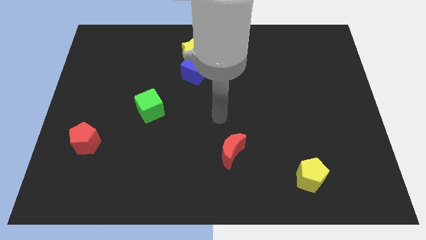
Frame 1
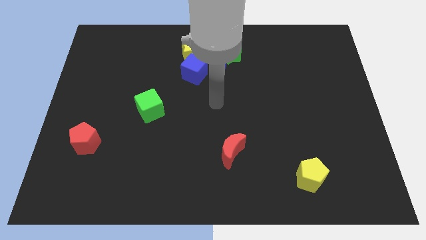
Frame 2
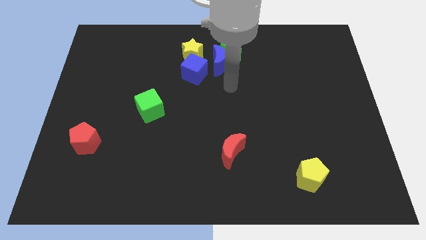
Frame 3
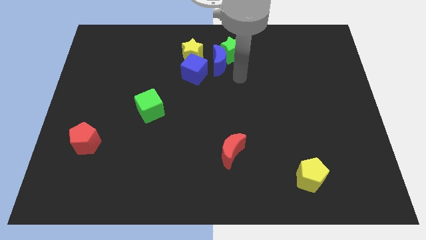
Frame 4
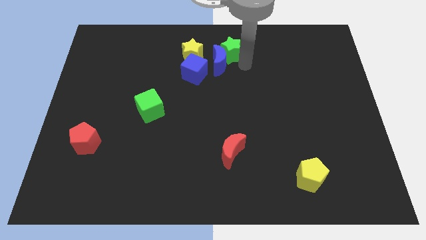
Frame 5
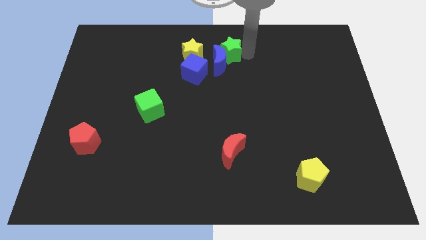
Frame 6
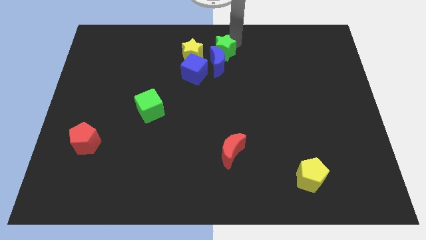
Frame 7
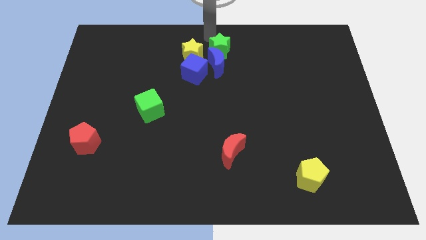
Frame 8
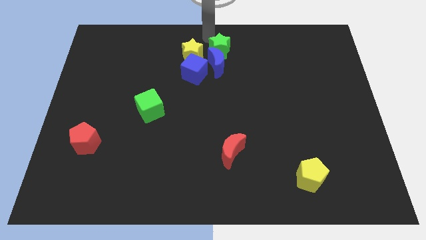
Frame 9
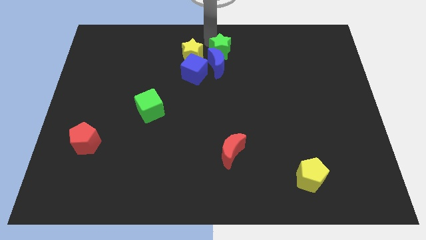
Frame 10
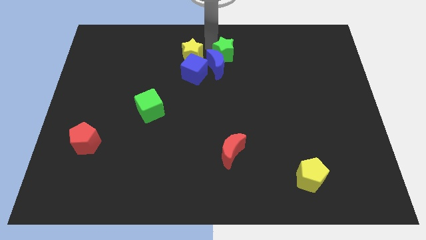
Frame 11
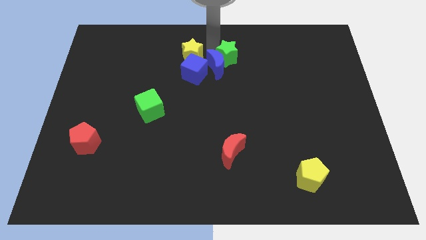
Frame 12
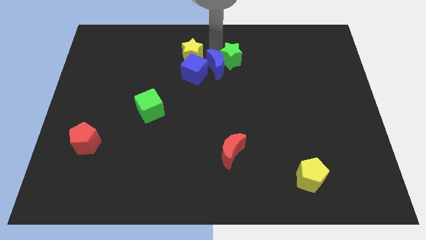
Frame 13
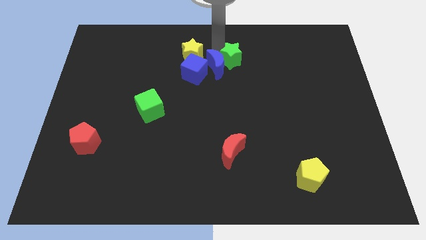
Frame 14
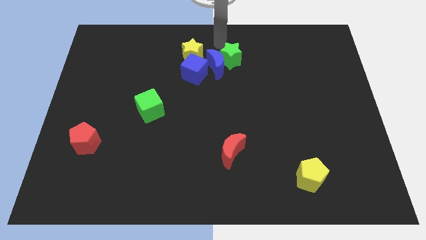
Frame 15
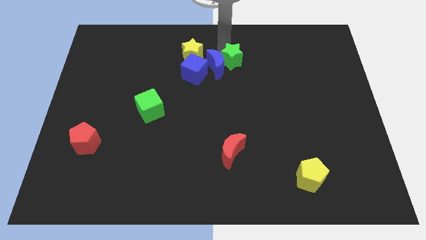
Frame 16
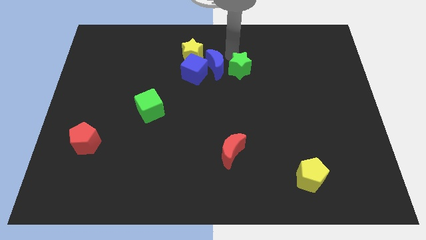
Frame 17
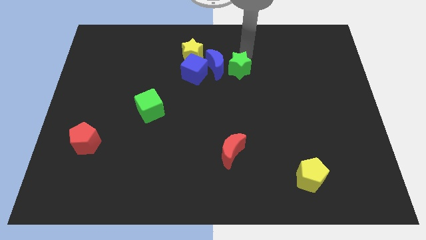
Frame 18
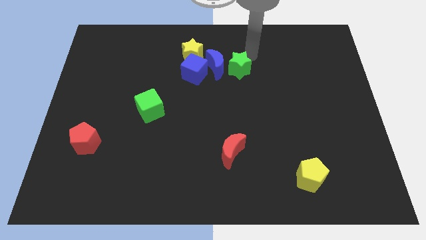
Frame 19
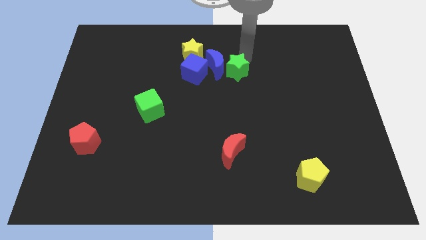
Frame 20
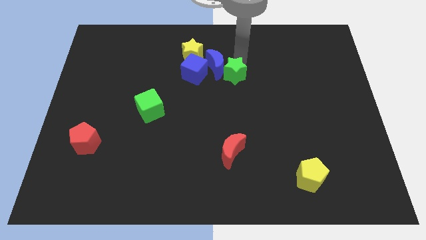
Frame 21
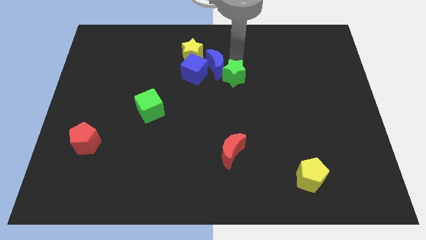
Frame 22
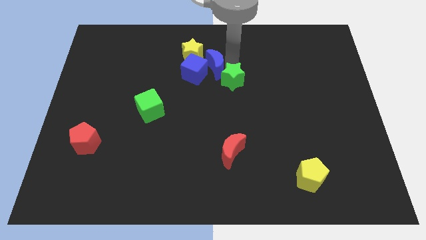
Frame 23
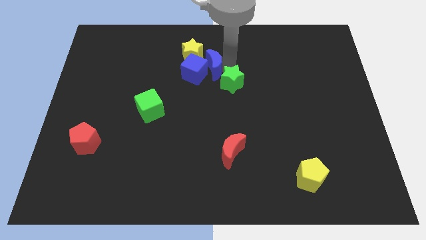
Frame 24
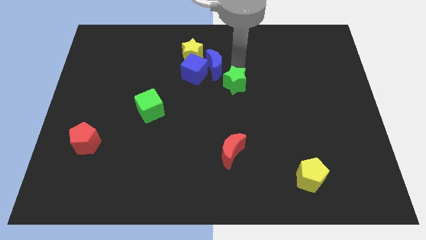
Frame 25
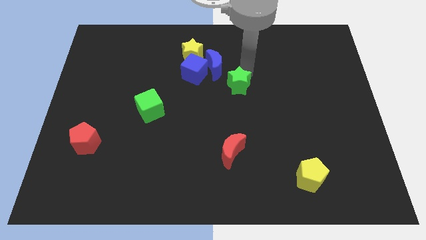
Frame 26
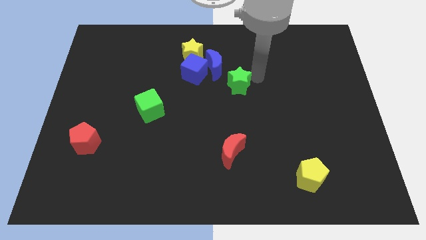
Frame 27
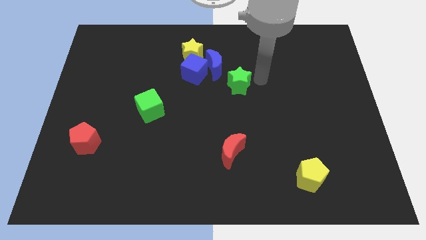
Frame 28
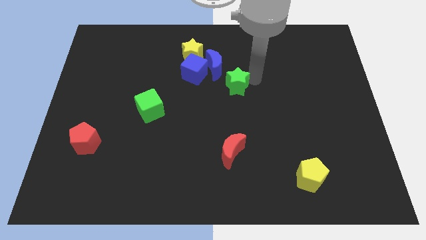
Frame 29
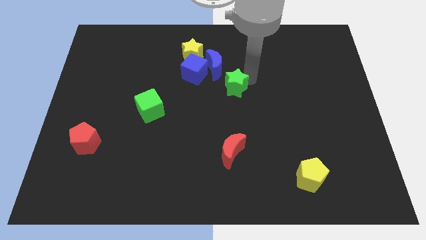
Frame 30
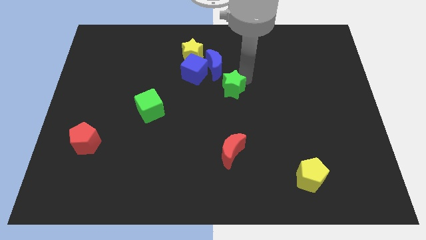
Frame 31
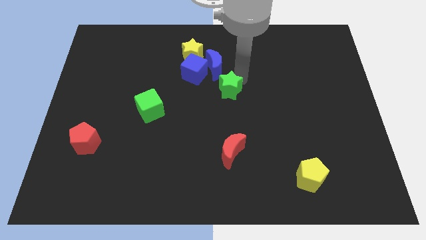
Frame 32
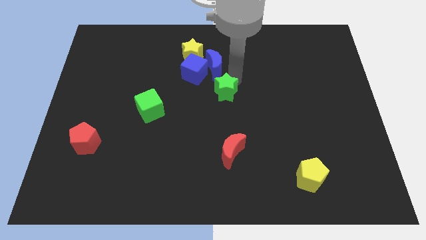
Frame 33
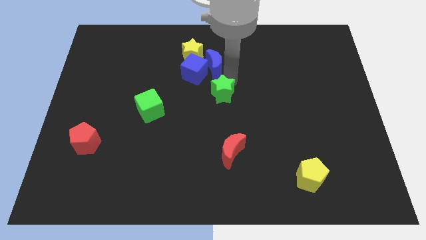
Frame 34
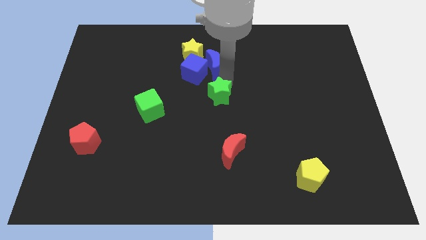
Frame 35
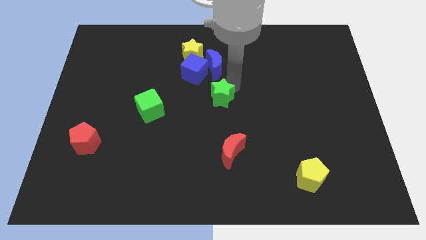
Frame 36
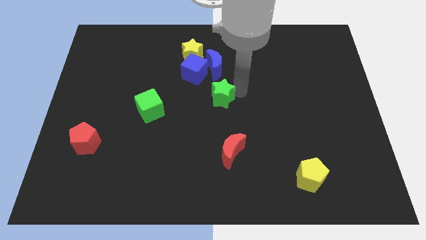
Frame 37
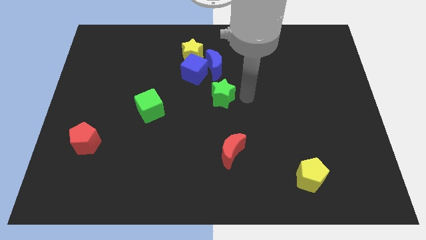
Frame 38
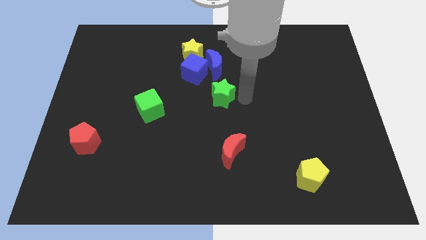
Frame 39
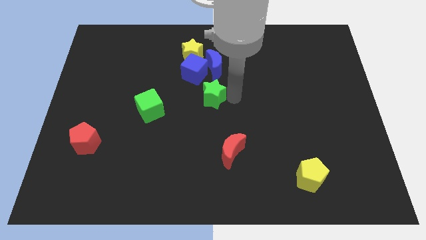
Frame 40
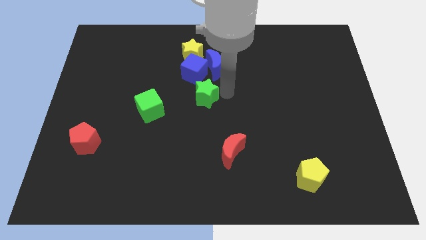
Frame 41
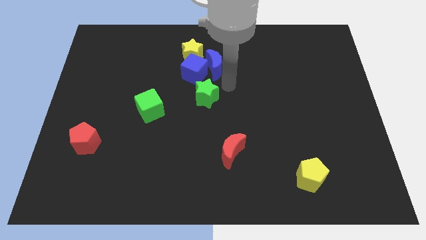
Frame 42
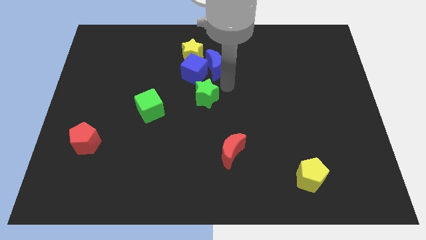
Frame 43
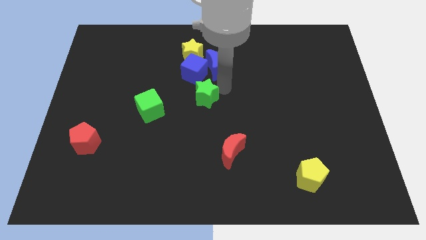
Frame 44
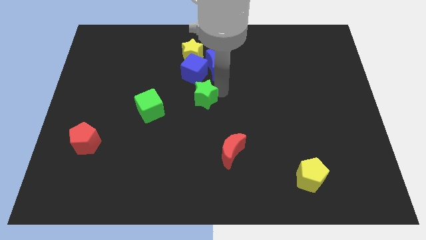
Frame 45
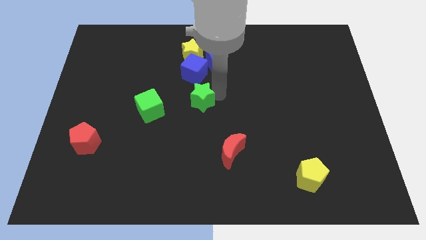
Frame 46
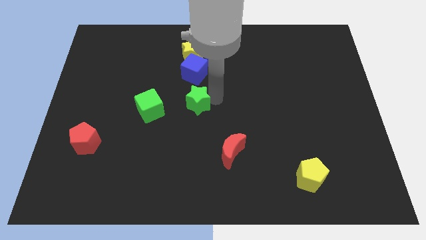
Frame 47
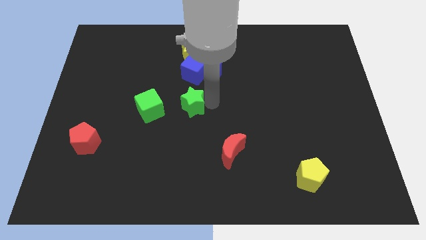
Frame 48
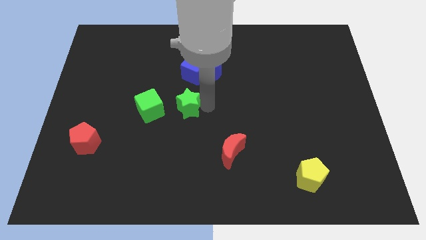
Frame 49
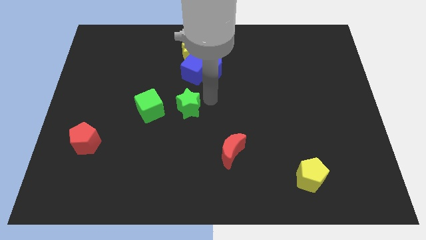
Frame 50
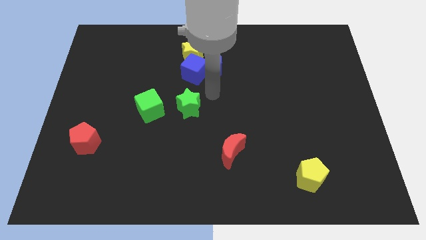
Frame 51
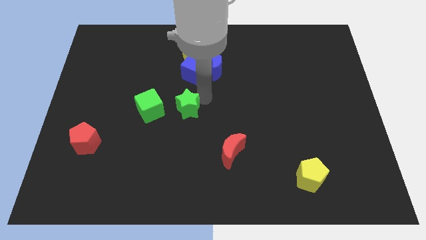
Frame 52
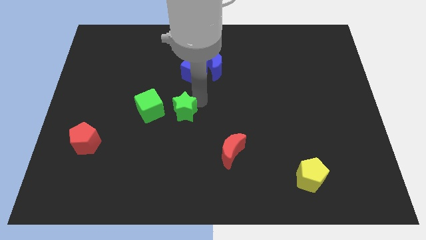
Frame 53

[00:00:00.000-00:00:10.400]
move the green star down and then left

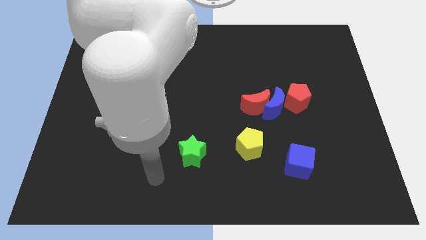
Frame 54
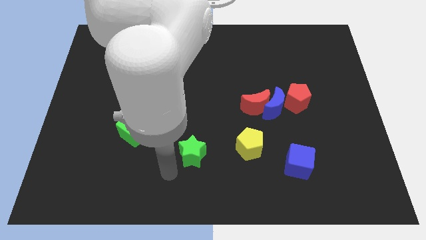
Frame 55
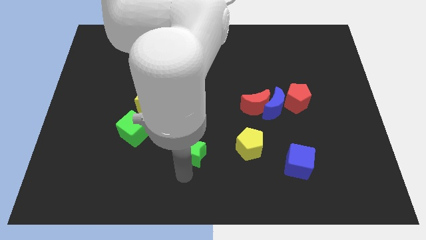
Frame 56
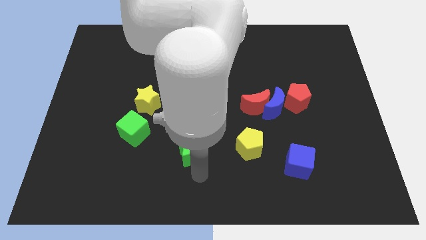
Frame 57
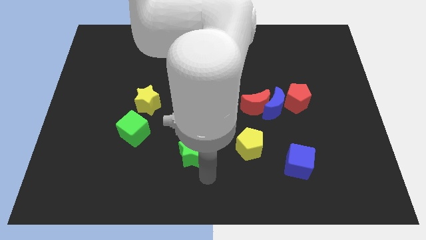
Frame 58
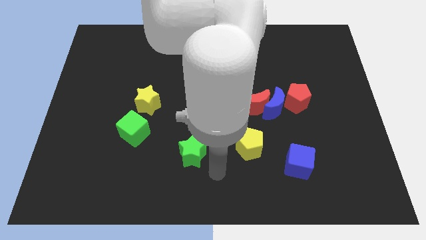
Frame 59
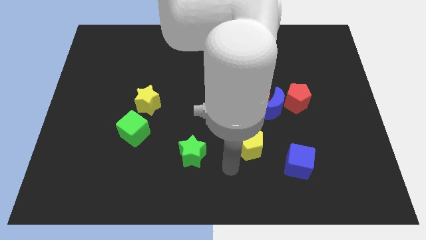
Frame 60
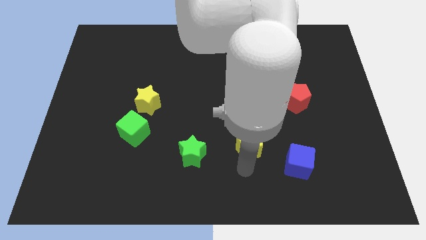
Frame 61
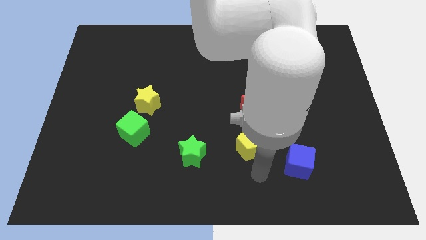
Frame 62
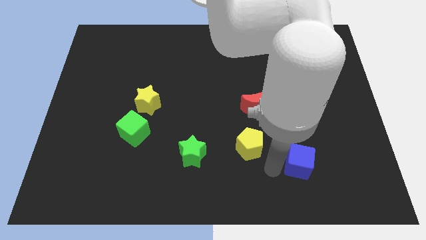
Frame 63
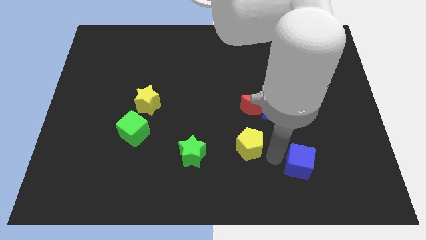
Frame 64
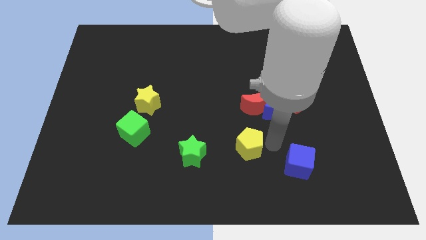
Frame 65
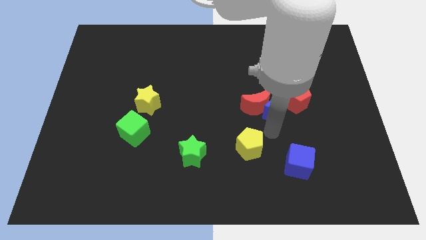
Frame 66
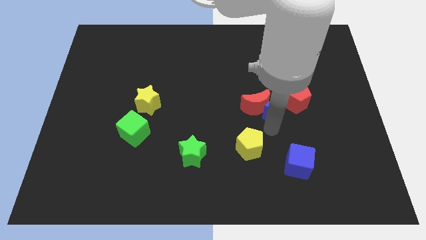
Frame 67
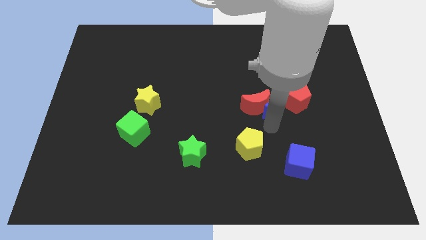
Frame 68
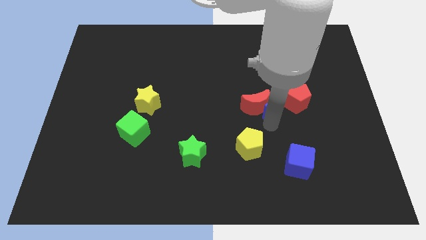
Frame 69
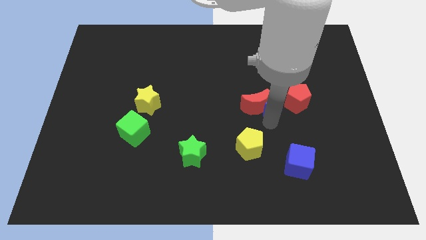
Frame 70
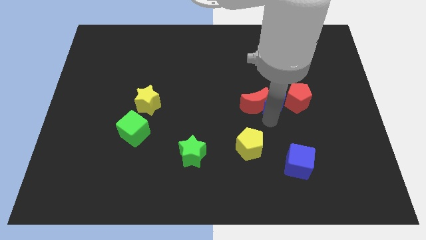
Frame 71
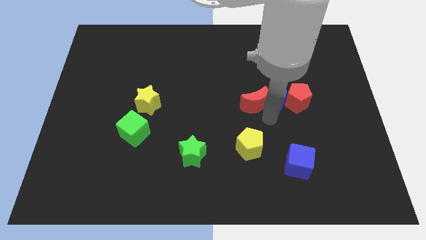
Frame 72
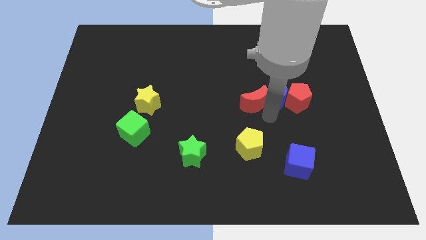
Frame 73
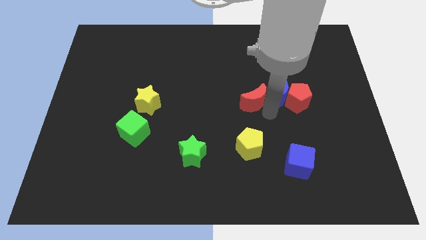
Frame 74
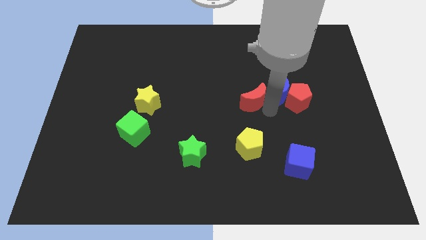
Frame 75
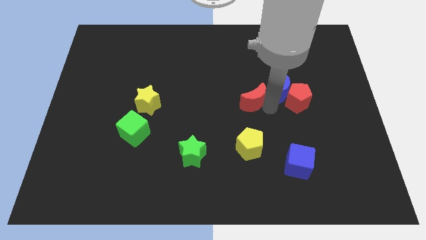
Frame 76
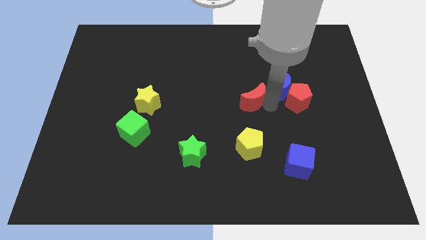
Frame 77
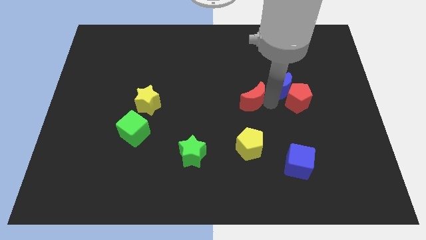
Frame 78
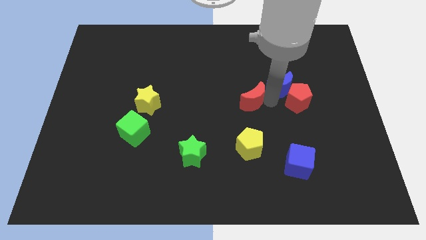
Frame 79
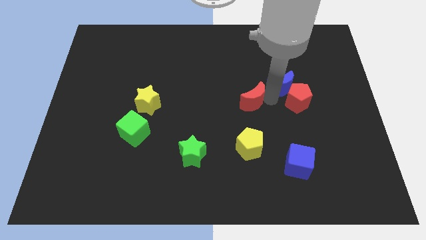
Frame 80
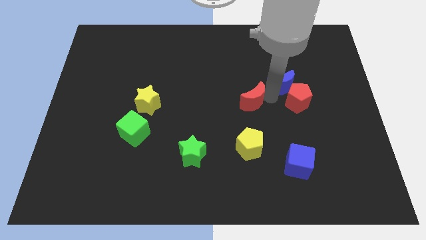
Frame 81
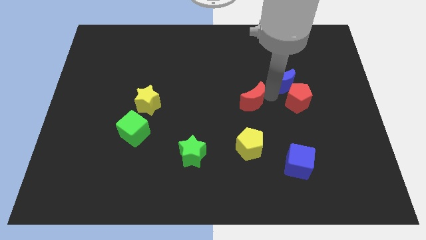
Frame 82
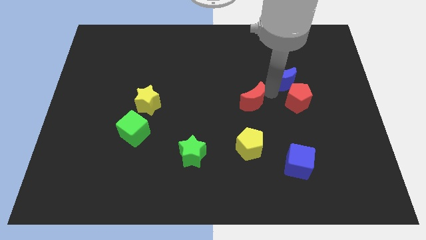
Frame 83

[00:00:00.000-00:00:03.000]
push the blue moon upwards and then right a little
